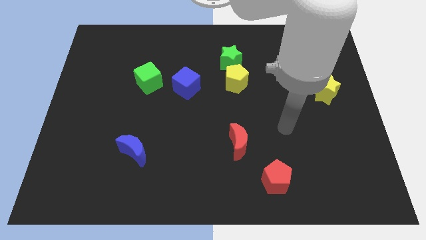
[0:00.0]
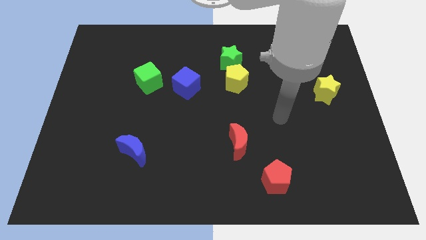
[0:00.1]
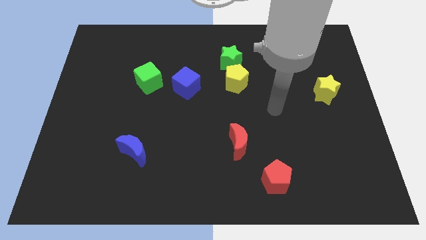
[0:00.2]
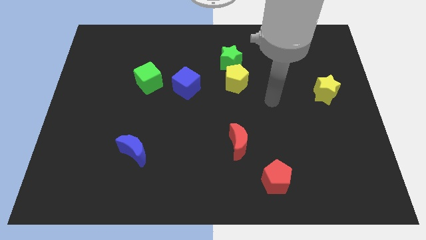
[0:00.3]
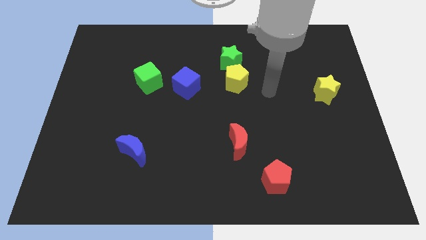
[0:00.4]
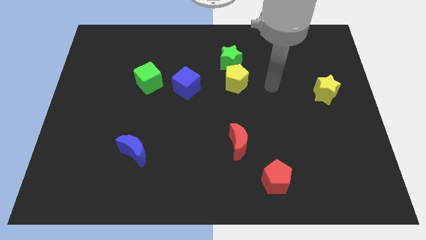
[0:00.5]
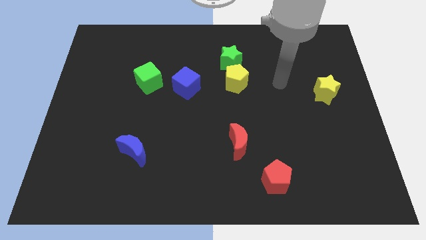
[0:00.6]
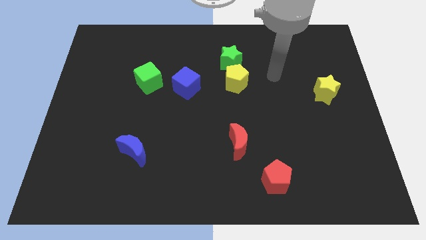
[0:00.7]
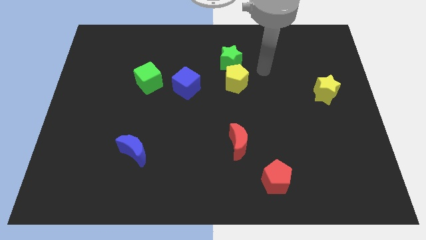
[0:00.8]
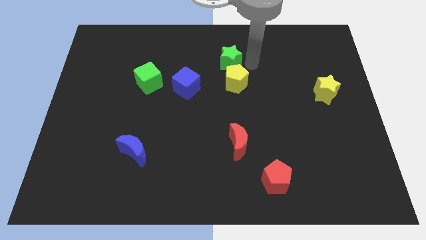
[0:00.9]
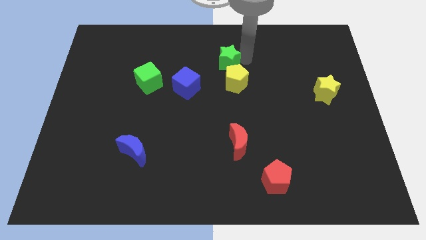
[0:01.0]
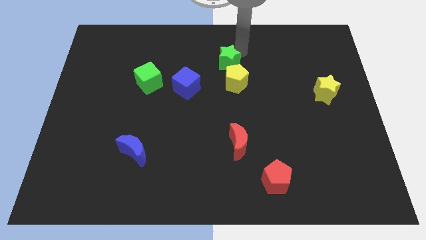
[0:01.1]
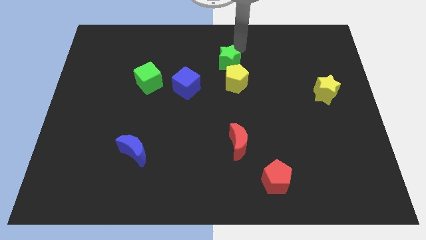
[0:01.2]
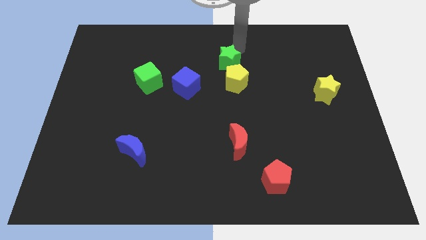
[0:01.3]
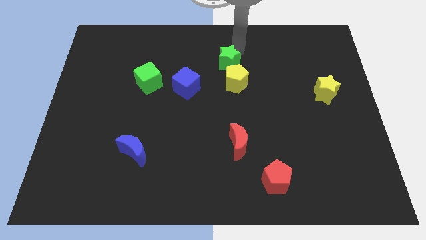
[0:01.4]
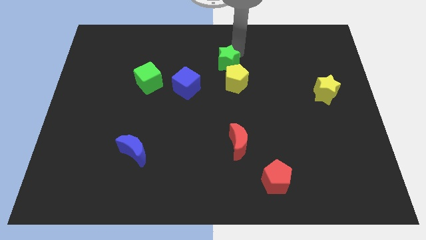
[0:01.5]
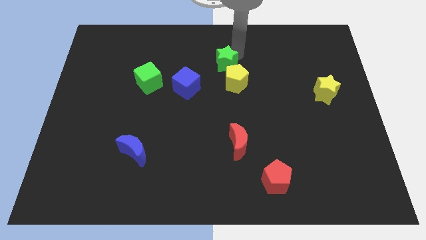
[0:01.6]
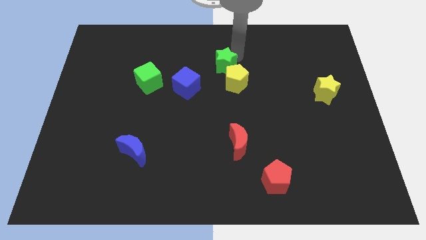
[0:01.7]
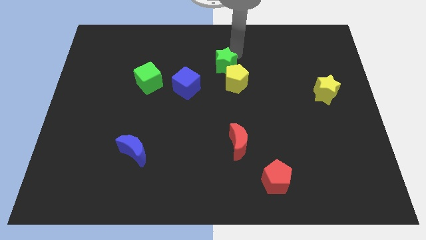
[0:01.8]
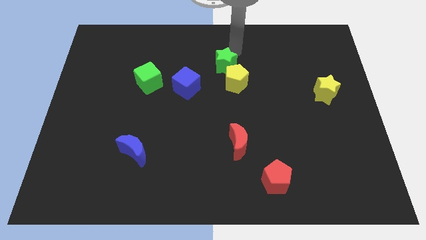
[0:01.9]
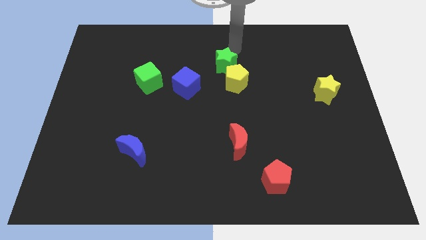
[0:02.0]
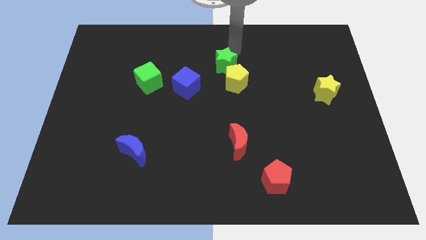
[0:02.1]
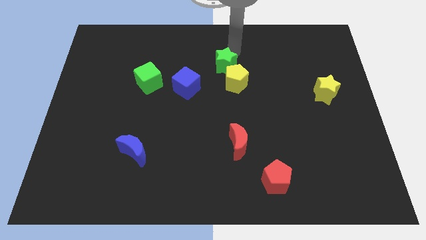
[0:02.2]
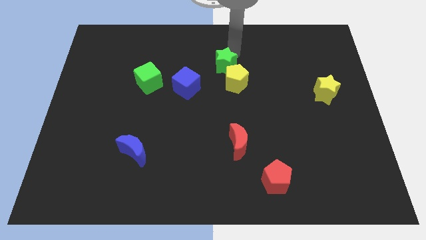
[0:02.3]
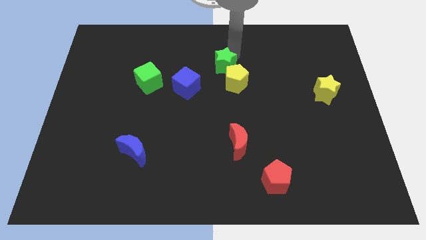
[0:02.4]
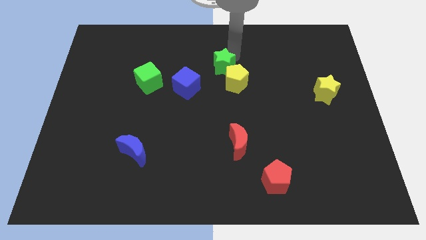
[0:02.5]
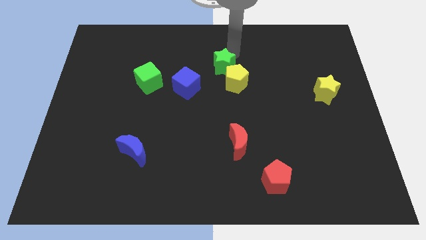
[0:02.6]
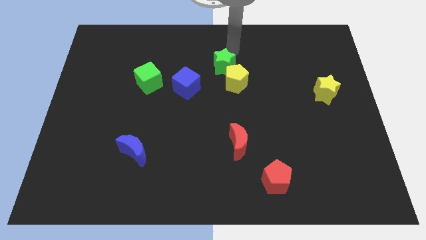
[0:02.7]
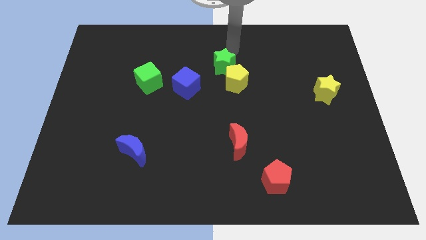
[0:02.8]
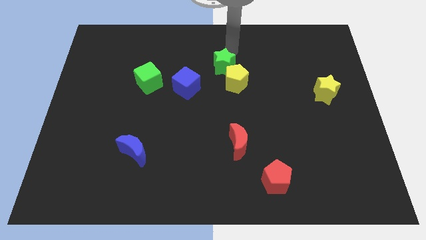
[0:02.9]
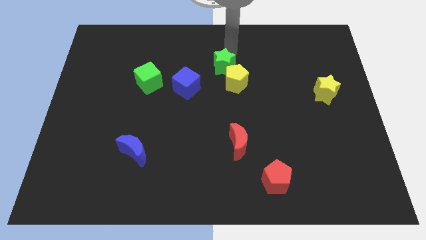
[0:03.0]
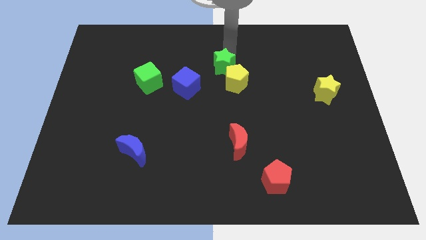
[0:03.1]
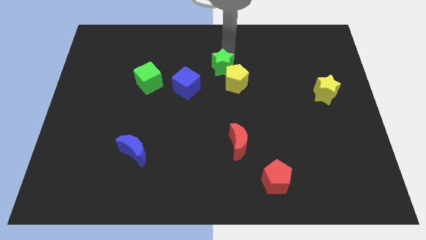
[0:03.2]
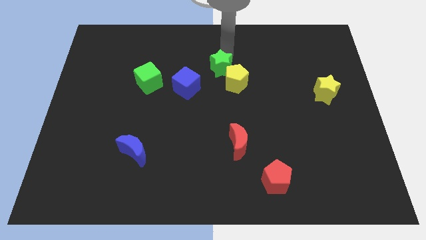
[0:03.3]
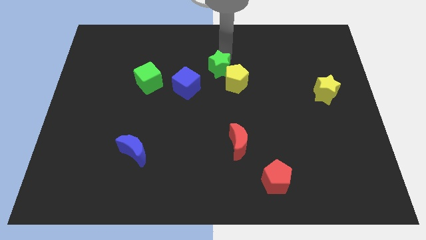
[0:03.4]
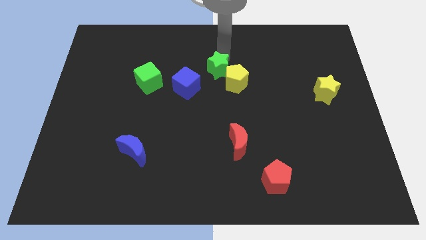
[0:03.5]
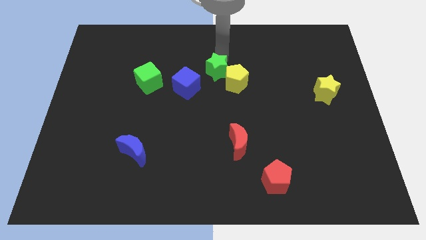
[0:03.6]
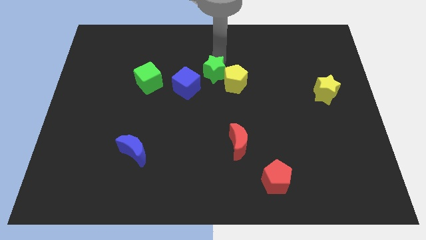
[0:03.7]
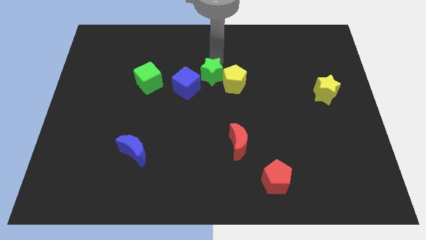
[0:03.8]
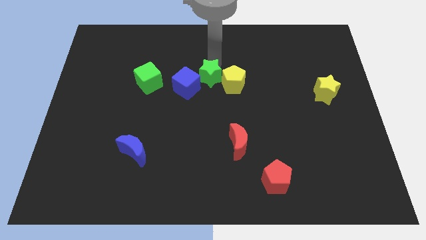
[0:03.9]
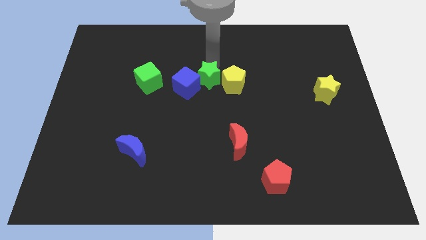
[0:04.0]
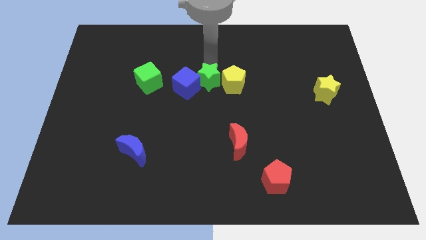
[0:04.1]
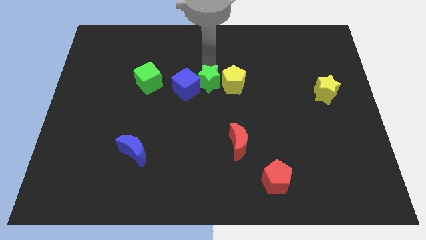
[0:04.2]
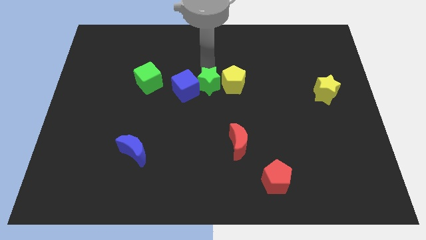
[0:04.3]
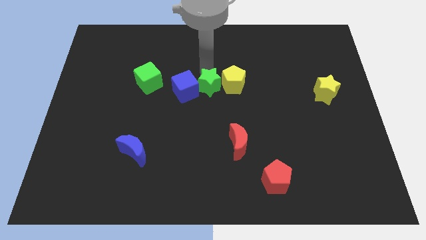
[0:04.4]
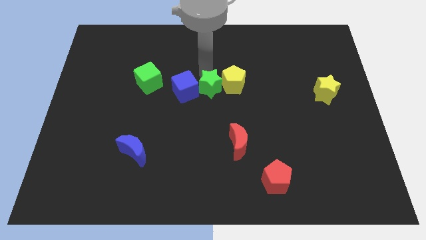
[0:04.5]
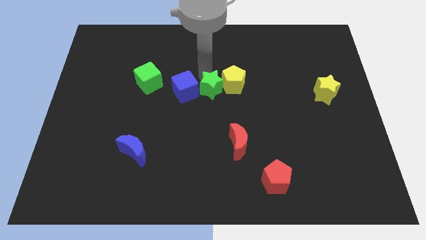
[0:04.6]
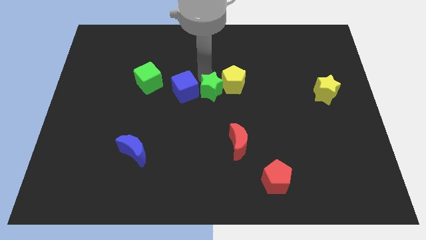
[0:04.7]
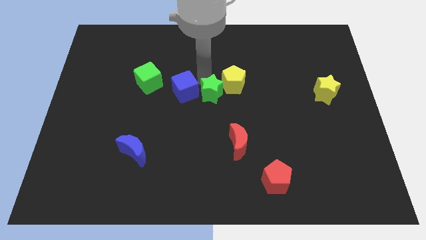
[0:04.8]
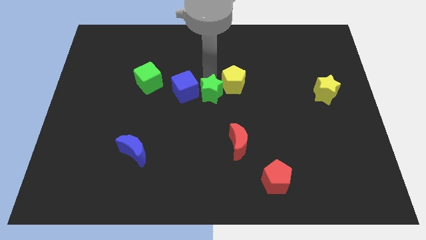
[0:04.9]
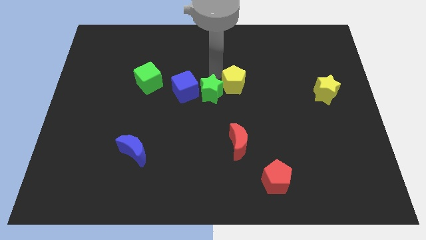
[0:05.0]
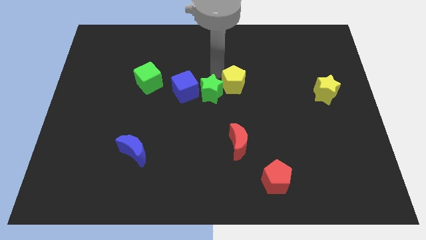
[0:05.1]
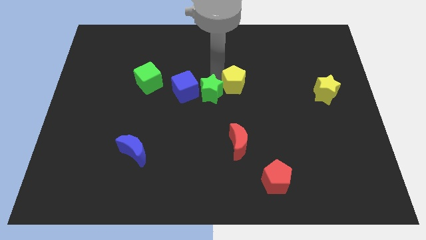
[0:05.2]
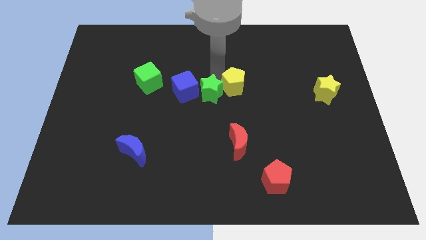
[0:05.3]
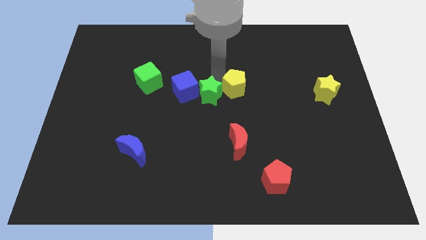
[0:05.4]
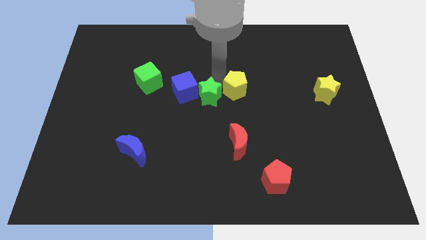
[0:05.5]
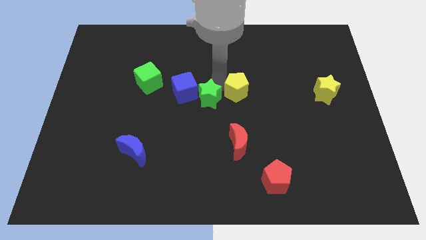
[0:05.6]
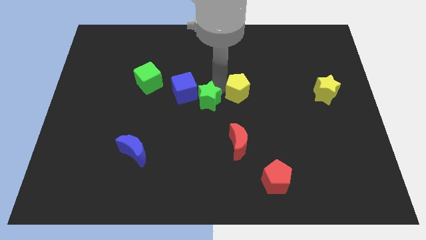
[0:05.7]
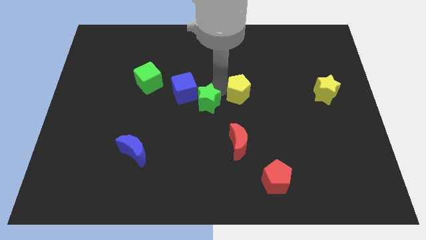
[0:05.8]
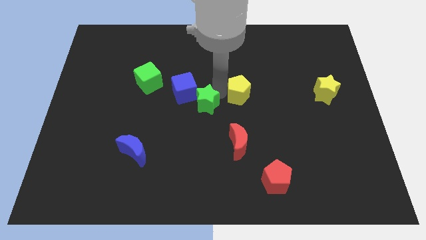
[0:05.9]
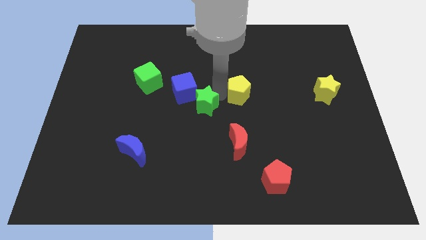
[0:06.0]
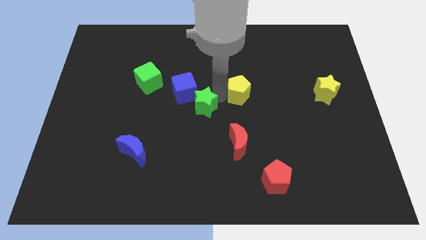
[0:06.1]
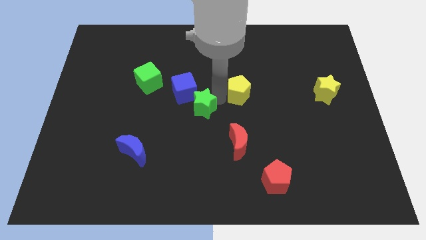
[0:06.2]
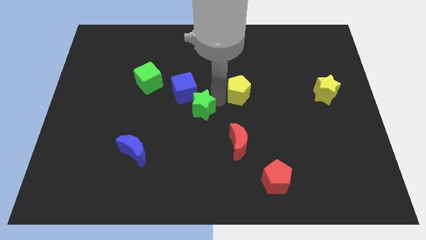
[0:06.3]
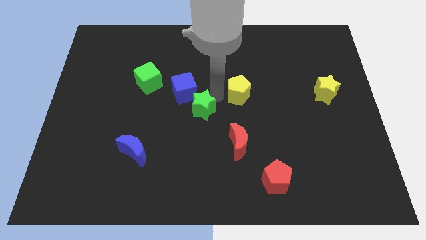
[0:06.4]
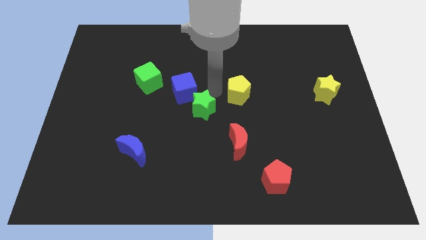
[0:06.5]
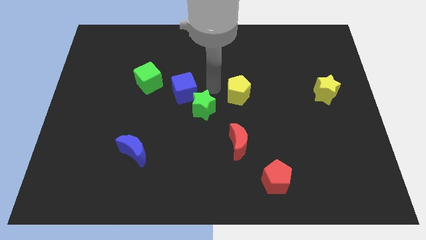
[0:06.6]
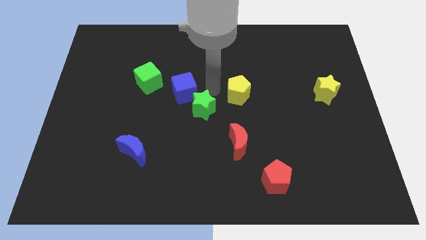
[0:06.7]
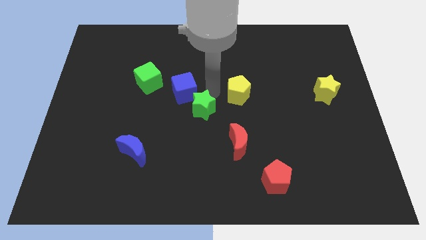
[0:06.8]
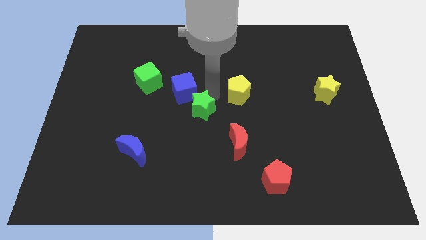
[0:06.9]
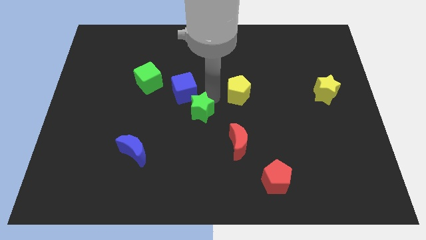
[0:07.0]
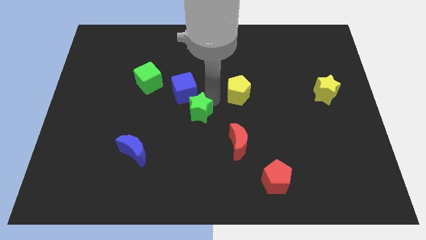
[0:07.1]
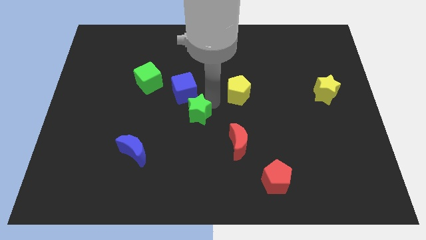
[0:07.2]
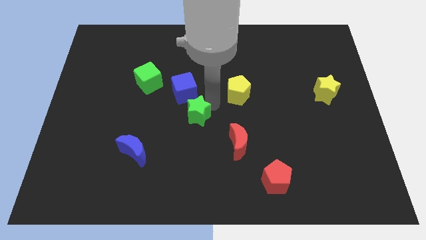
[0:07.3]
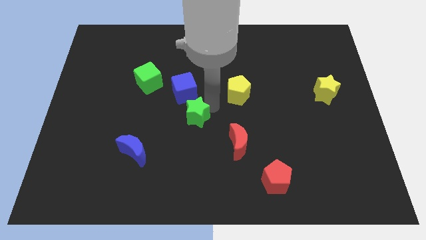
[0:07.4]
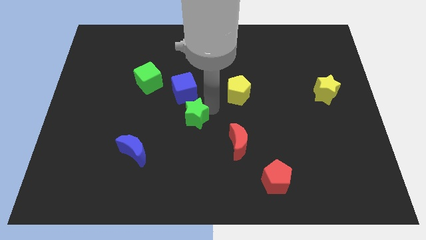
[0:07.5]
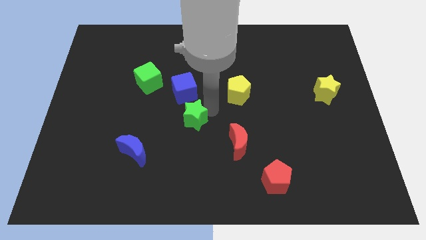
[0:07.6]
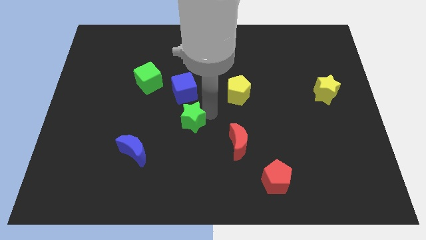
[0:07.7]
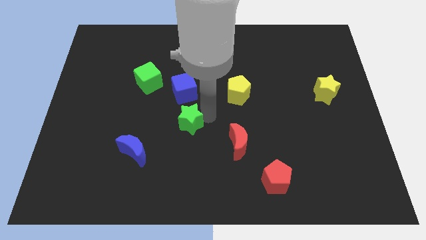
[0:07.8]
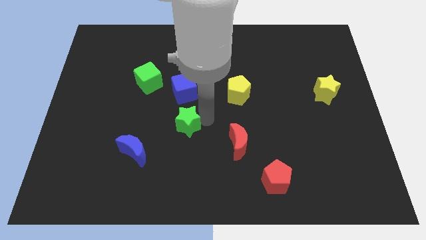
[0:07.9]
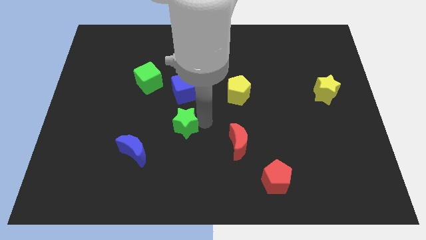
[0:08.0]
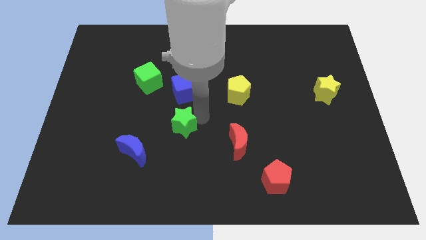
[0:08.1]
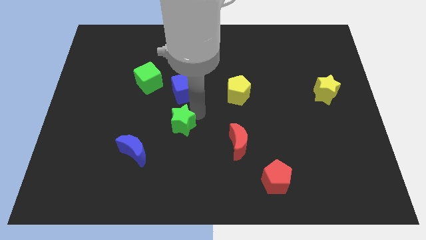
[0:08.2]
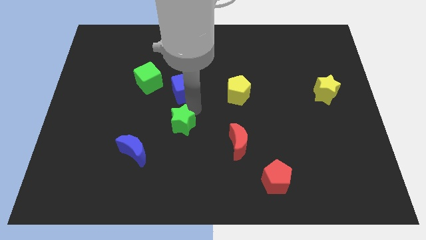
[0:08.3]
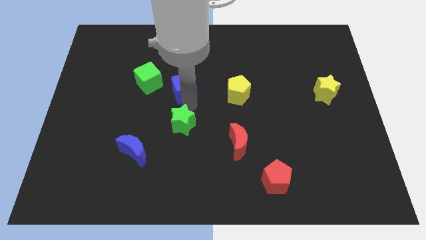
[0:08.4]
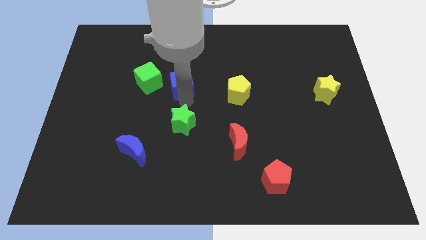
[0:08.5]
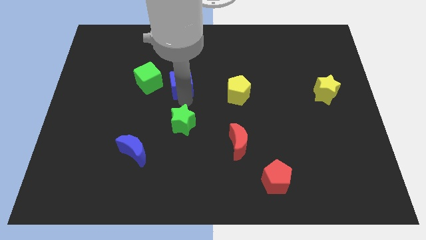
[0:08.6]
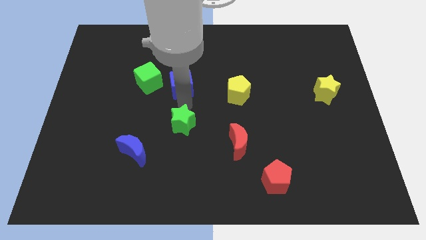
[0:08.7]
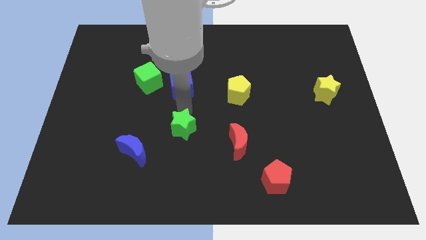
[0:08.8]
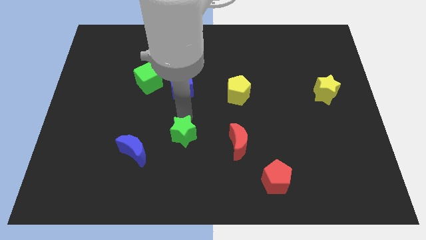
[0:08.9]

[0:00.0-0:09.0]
put the green star to the right side of the blue moon
